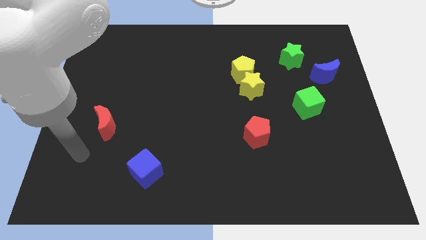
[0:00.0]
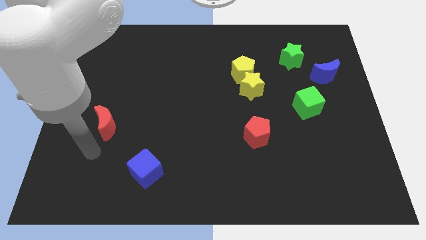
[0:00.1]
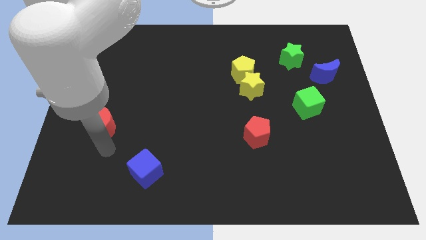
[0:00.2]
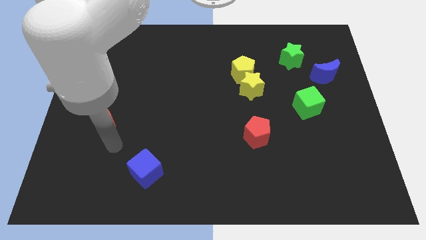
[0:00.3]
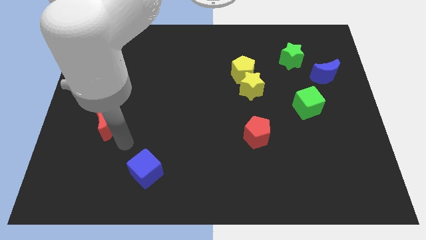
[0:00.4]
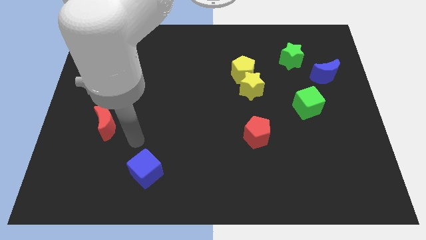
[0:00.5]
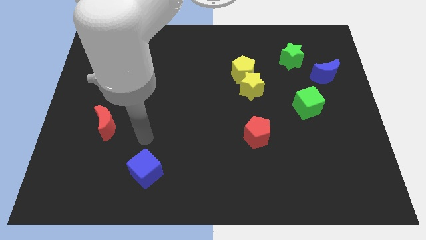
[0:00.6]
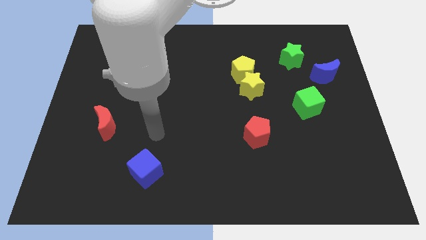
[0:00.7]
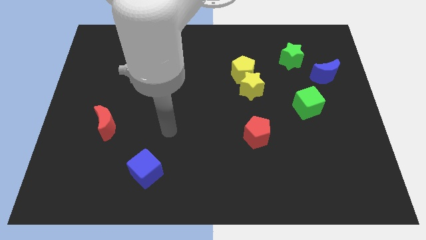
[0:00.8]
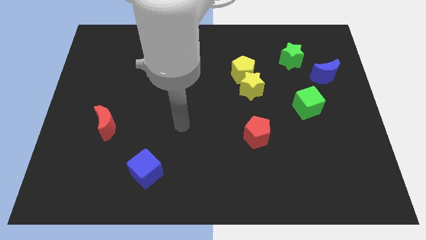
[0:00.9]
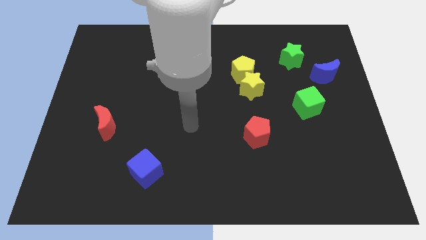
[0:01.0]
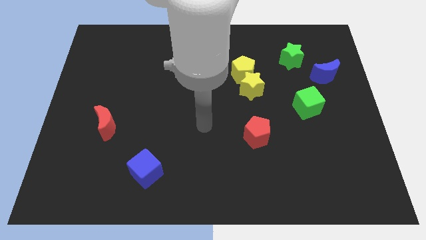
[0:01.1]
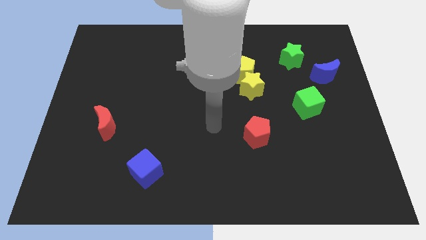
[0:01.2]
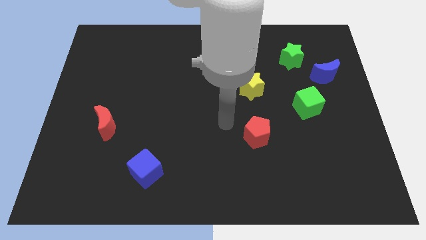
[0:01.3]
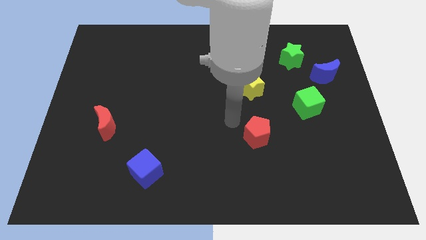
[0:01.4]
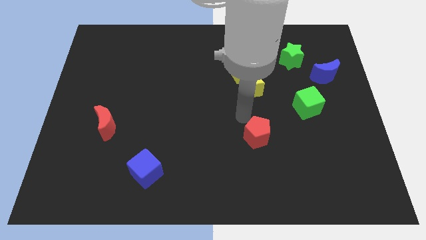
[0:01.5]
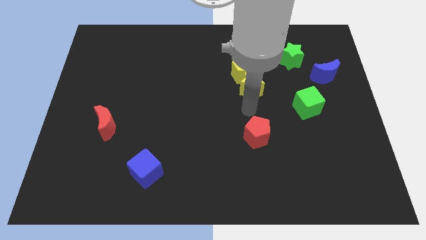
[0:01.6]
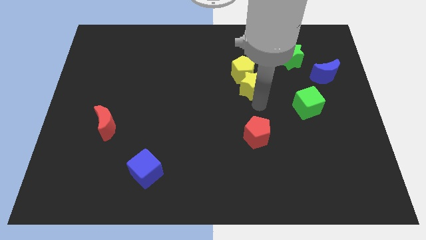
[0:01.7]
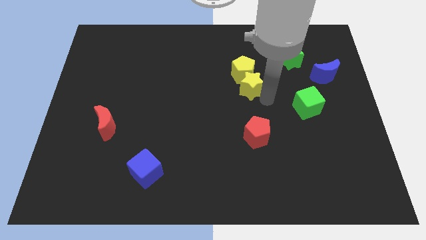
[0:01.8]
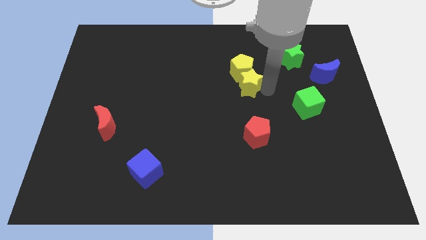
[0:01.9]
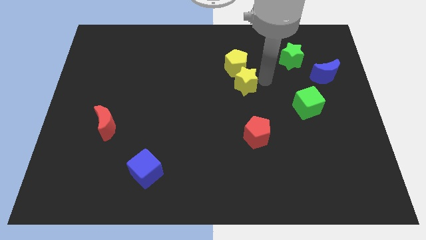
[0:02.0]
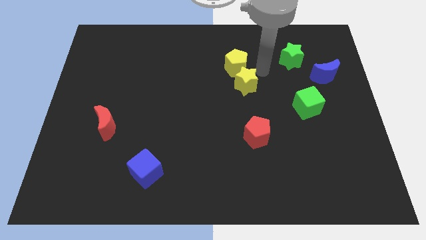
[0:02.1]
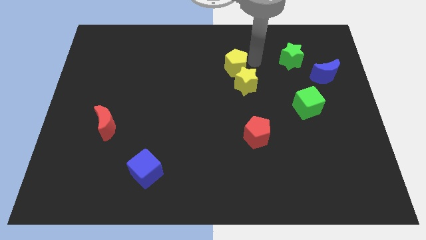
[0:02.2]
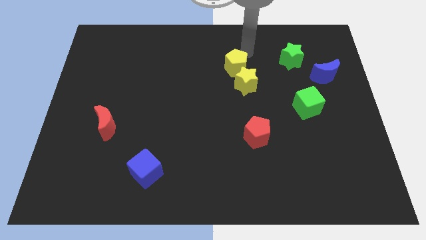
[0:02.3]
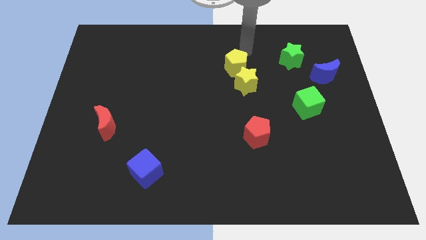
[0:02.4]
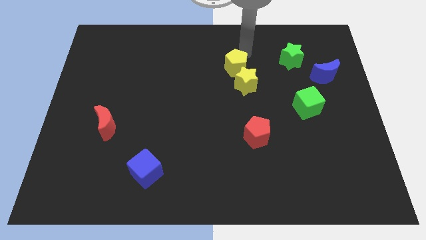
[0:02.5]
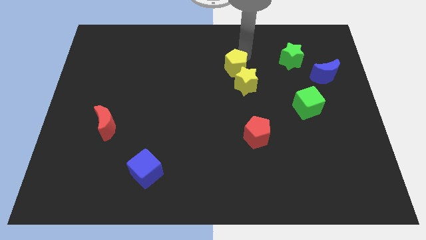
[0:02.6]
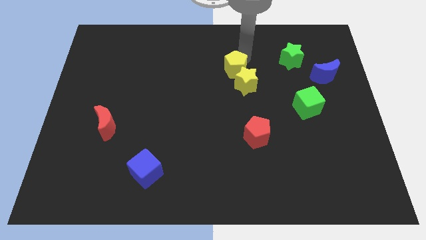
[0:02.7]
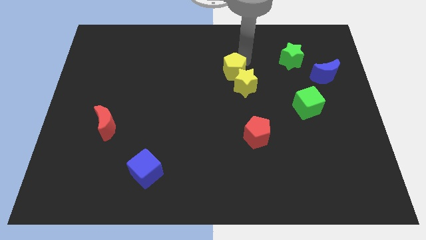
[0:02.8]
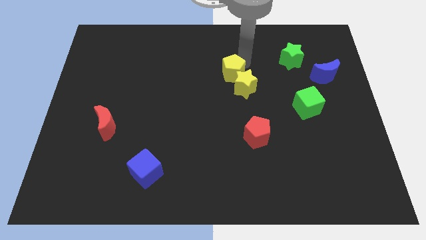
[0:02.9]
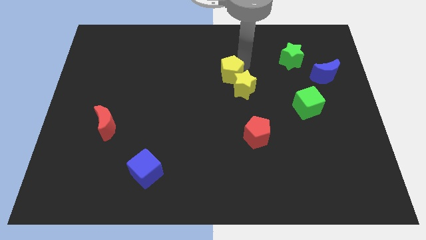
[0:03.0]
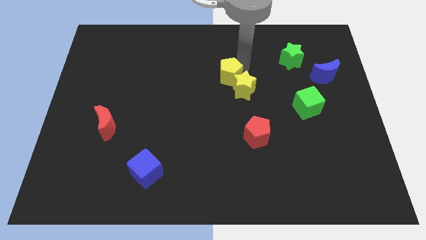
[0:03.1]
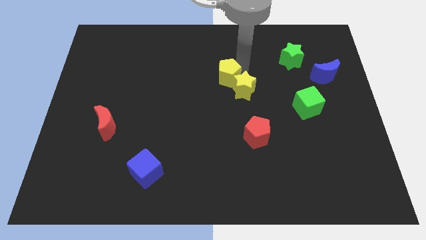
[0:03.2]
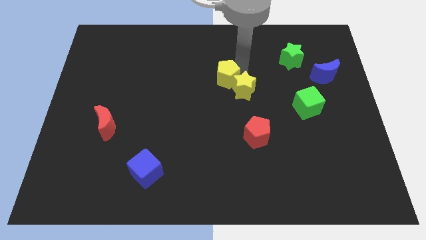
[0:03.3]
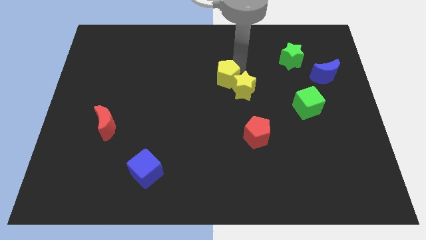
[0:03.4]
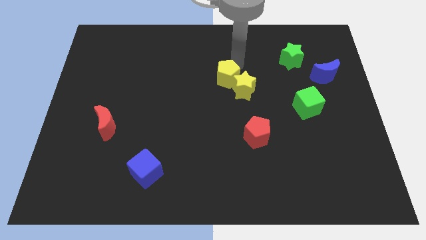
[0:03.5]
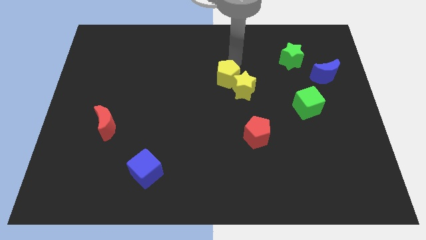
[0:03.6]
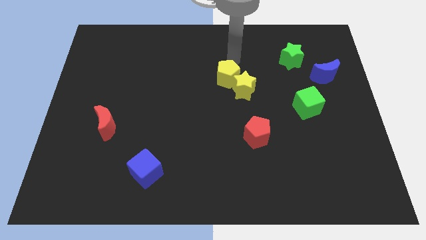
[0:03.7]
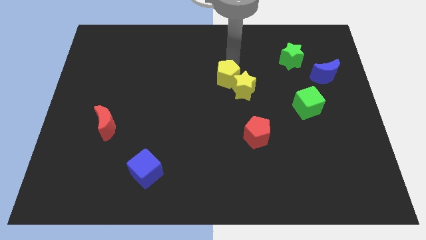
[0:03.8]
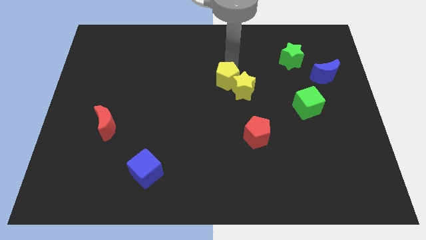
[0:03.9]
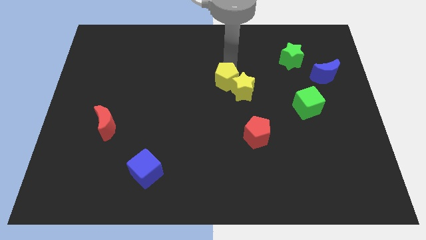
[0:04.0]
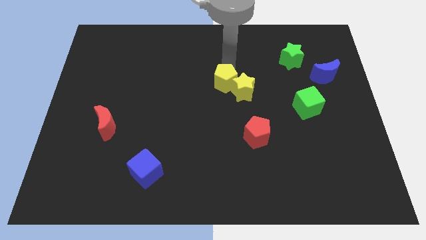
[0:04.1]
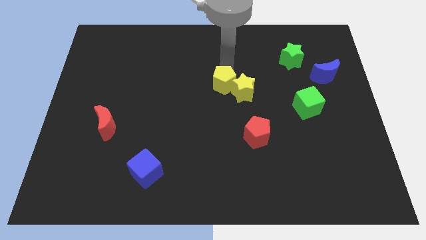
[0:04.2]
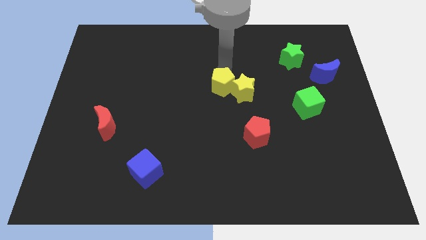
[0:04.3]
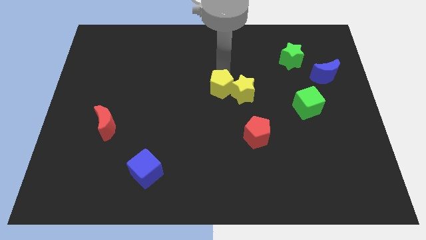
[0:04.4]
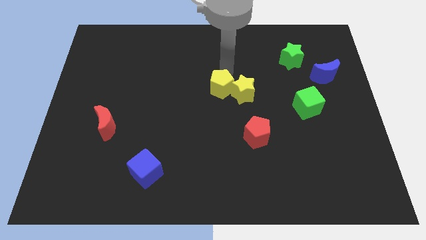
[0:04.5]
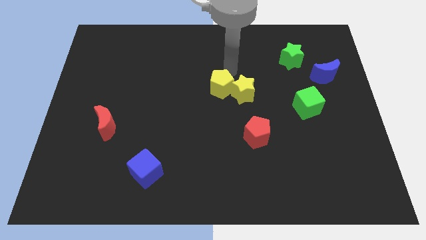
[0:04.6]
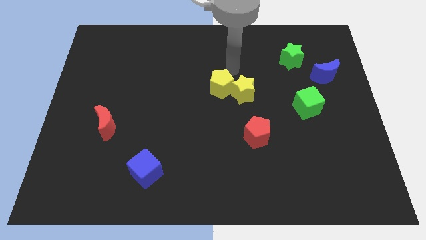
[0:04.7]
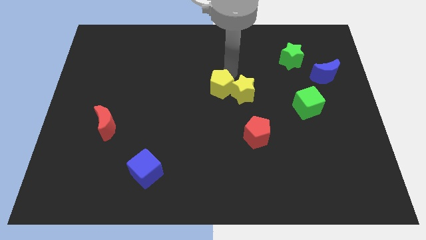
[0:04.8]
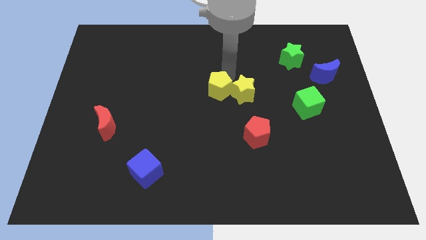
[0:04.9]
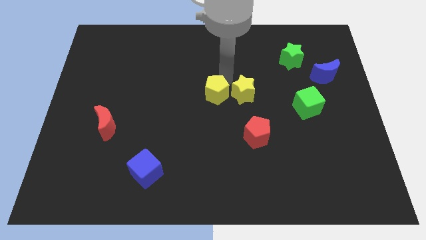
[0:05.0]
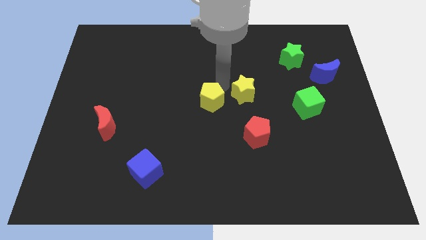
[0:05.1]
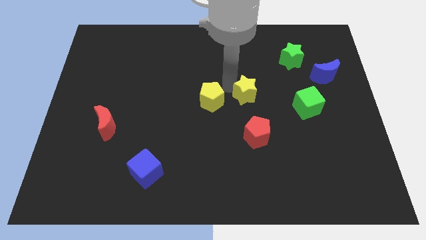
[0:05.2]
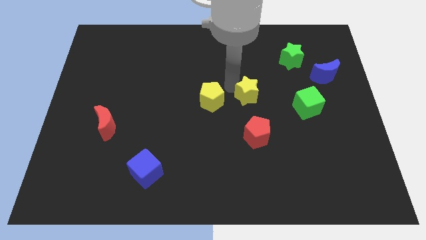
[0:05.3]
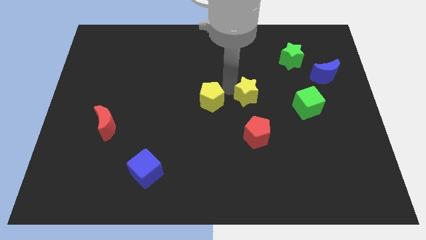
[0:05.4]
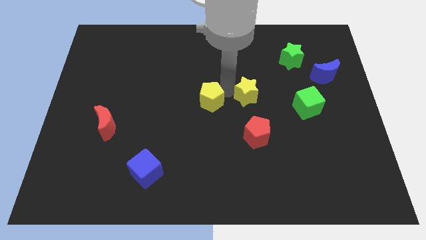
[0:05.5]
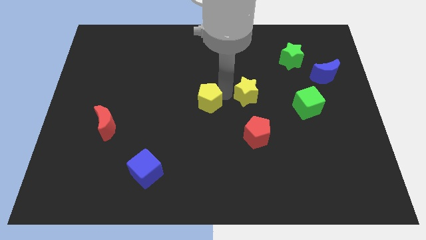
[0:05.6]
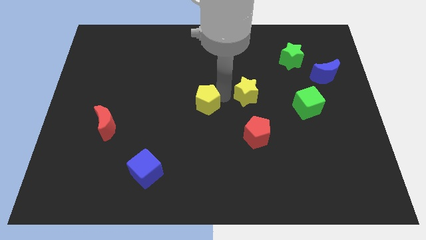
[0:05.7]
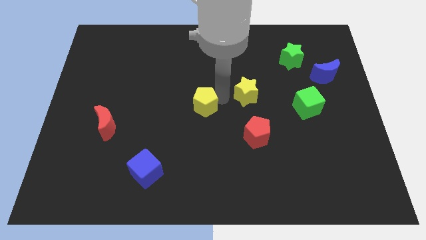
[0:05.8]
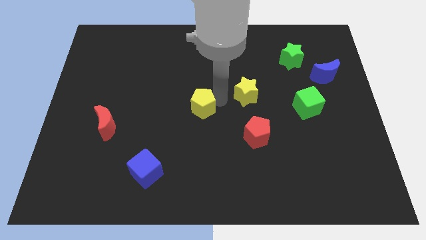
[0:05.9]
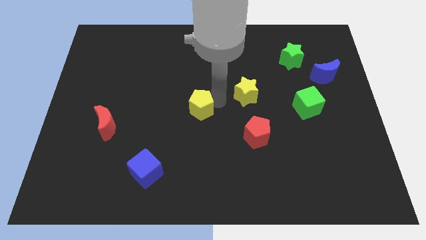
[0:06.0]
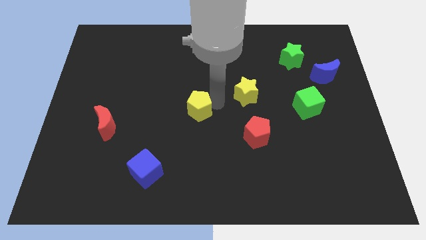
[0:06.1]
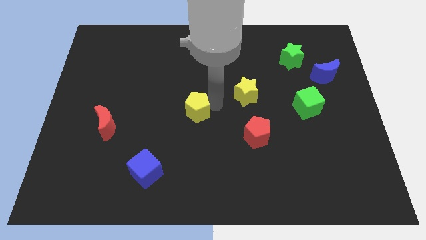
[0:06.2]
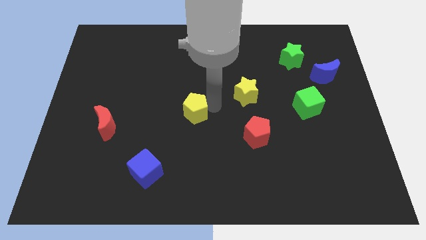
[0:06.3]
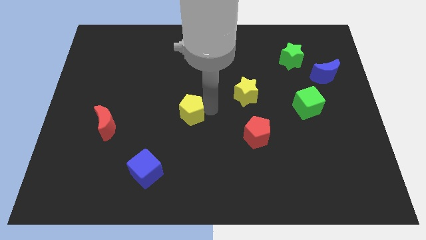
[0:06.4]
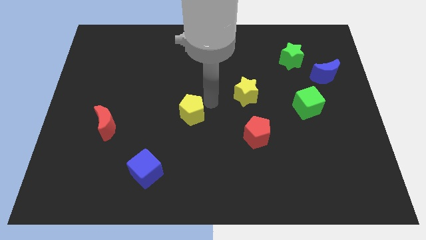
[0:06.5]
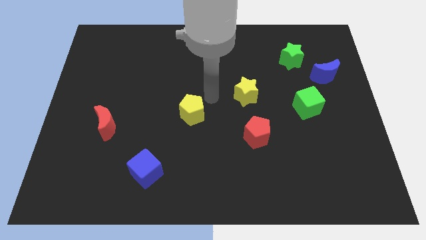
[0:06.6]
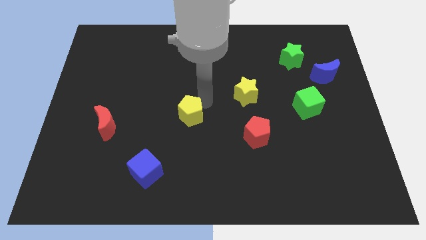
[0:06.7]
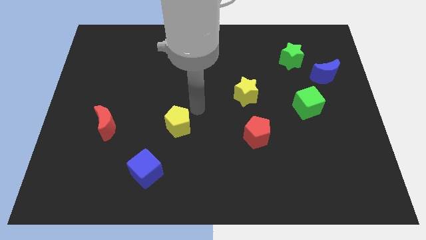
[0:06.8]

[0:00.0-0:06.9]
slide the yellow pentagon down and to the left

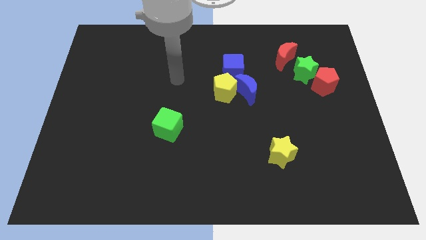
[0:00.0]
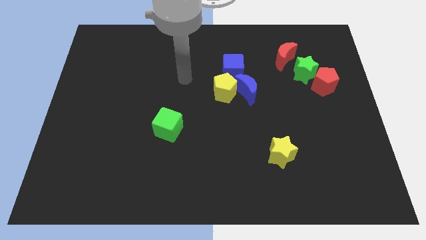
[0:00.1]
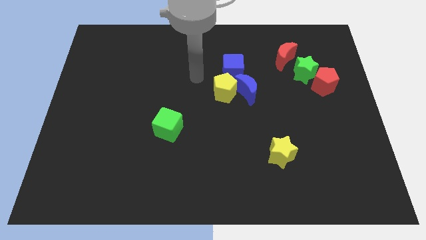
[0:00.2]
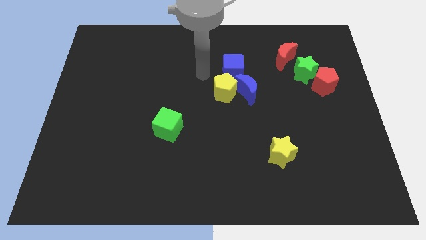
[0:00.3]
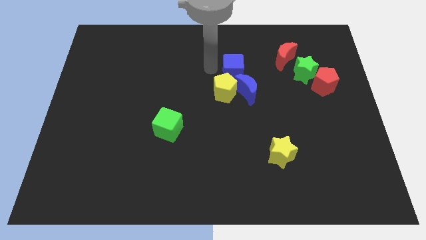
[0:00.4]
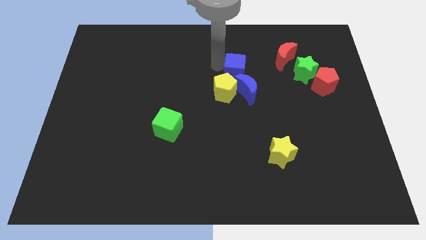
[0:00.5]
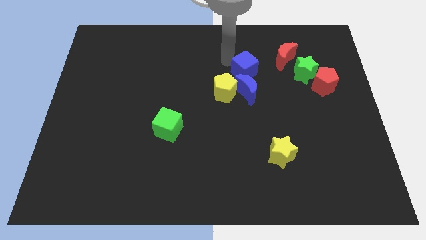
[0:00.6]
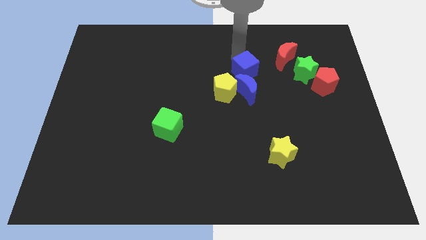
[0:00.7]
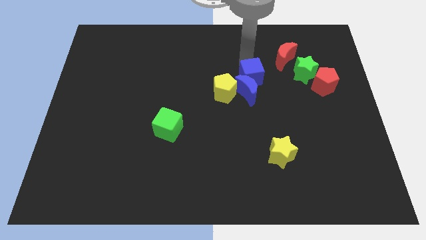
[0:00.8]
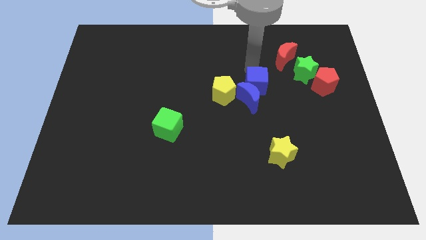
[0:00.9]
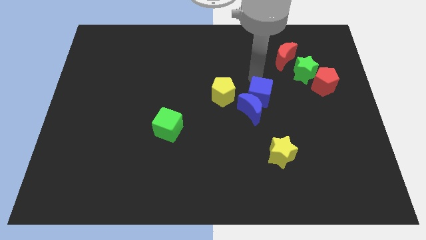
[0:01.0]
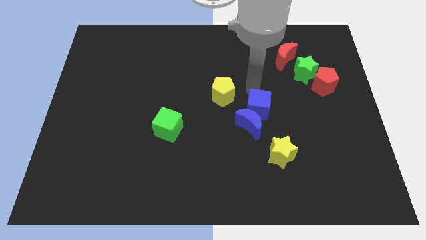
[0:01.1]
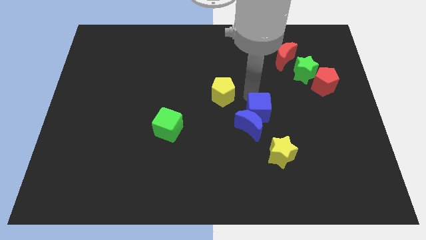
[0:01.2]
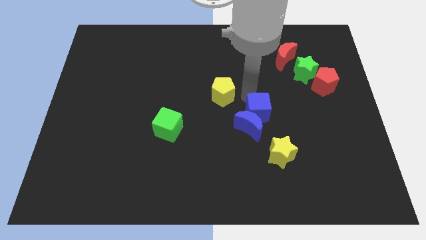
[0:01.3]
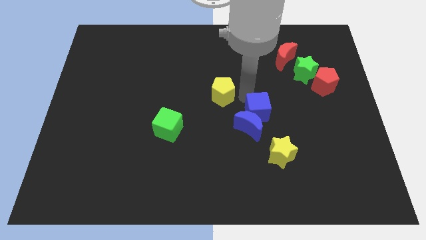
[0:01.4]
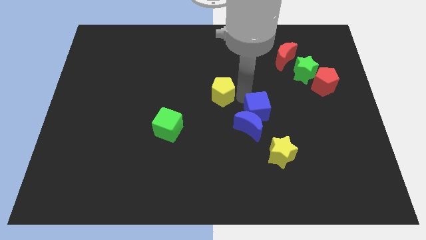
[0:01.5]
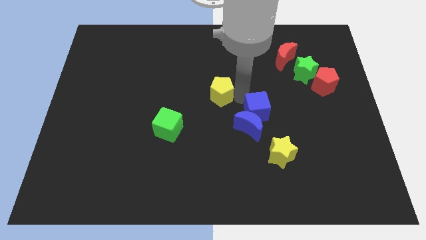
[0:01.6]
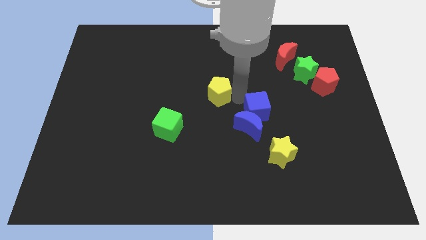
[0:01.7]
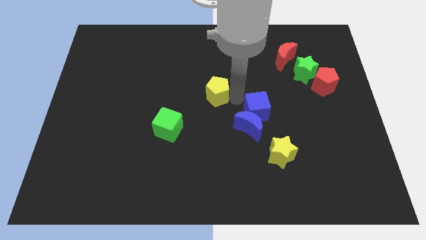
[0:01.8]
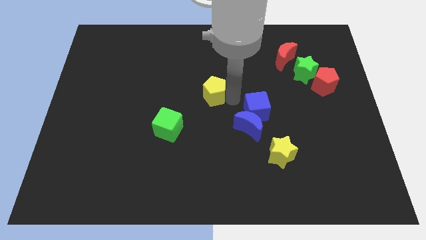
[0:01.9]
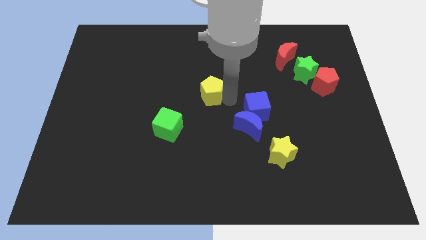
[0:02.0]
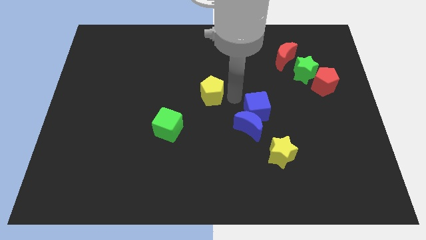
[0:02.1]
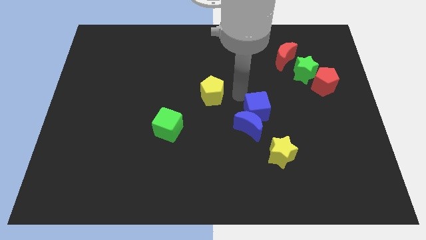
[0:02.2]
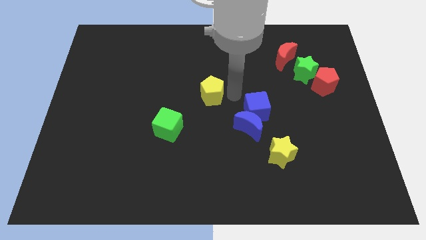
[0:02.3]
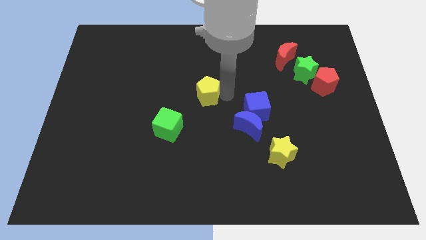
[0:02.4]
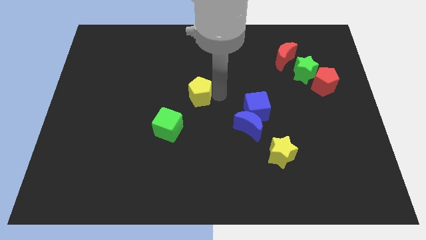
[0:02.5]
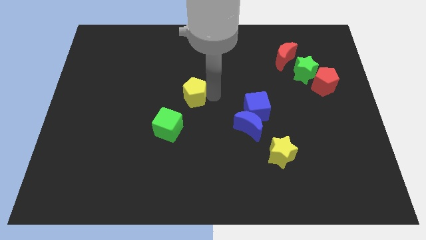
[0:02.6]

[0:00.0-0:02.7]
push the yellow pentagon to the left somewhat
